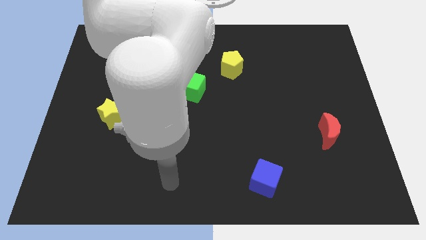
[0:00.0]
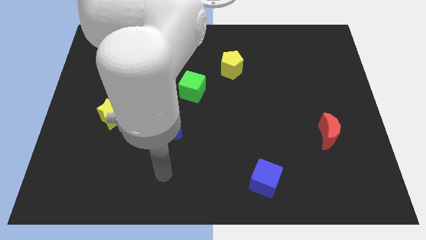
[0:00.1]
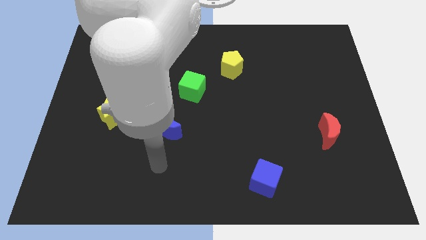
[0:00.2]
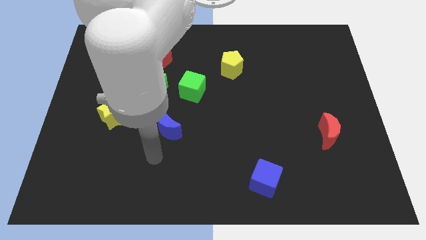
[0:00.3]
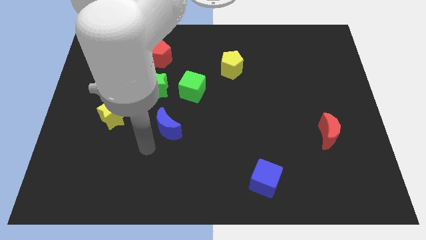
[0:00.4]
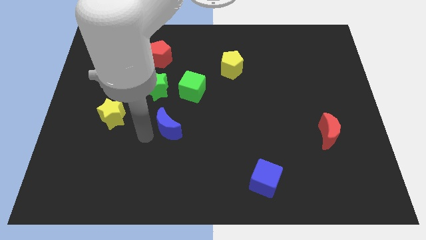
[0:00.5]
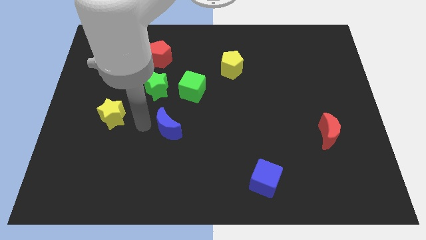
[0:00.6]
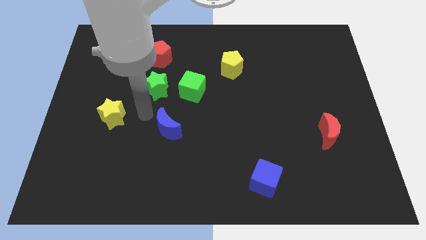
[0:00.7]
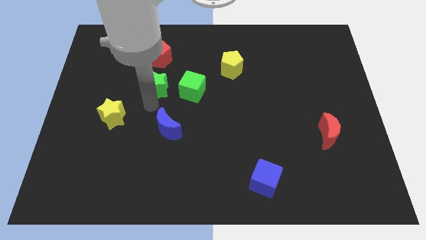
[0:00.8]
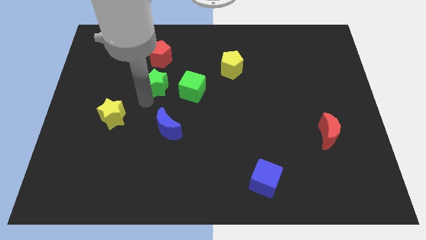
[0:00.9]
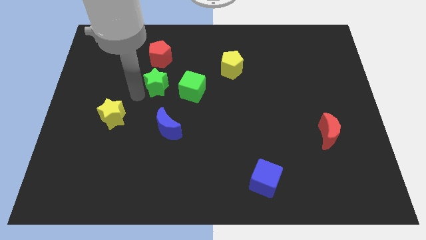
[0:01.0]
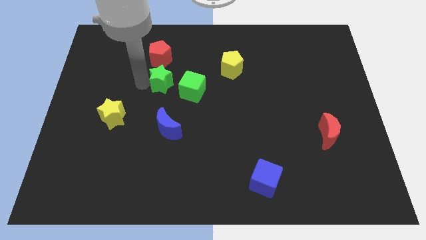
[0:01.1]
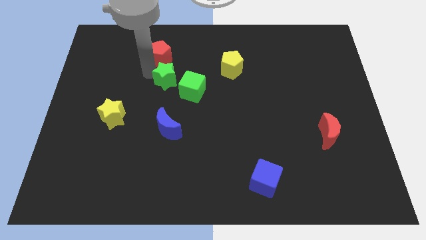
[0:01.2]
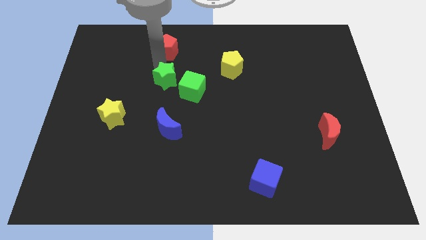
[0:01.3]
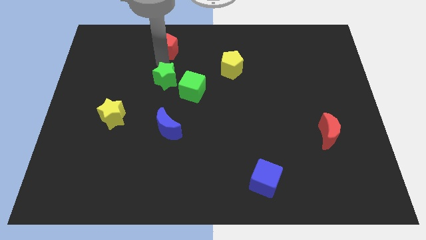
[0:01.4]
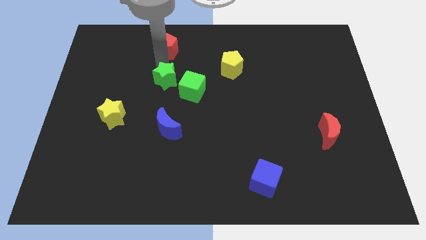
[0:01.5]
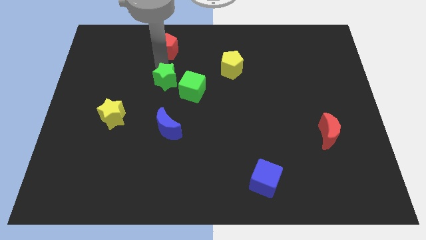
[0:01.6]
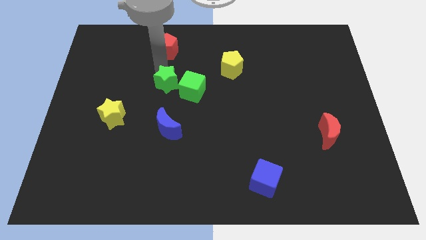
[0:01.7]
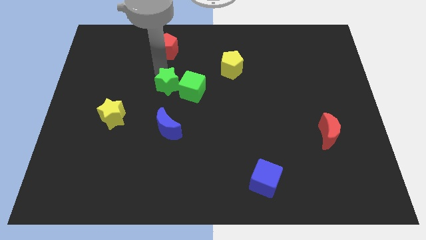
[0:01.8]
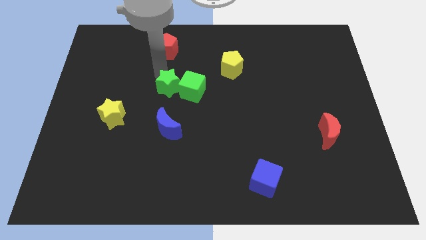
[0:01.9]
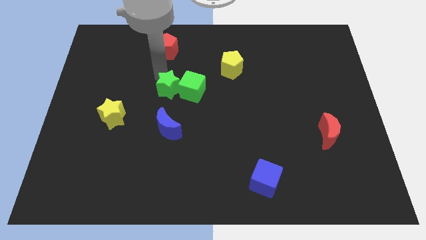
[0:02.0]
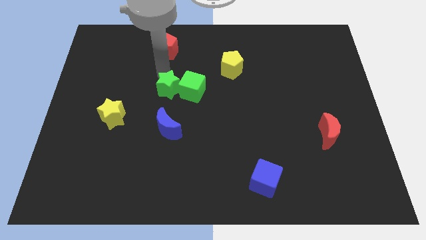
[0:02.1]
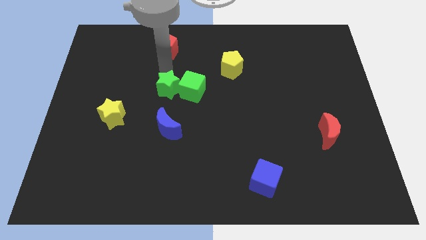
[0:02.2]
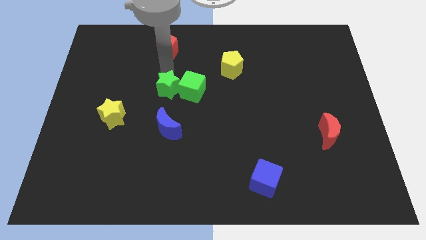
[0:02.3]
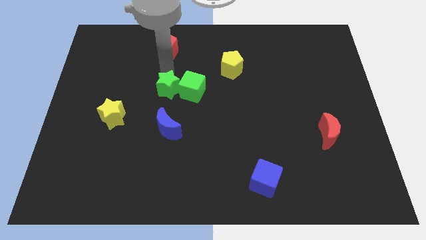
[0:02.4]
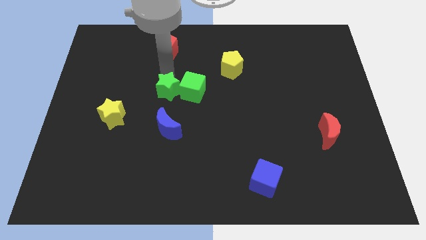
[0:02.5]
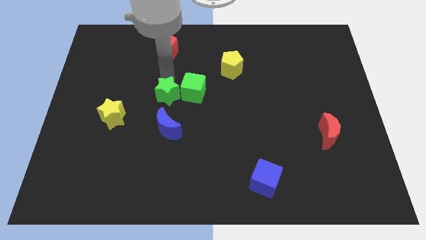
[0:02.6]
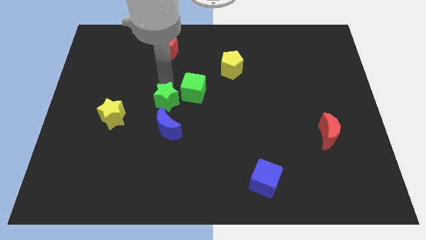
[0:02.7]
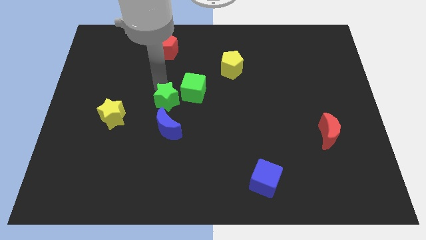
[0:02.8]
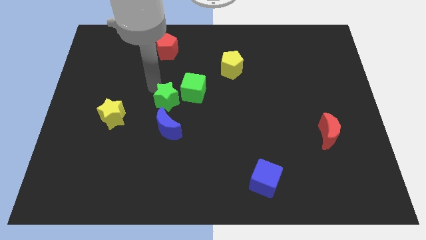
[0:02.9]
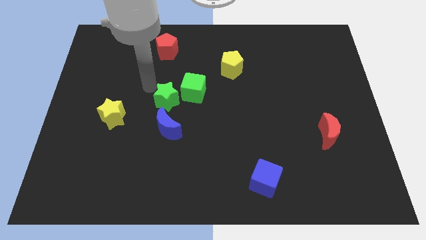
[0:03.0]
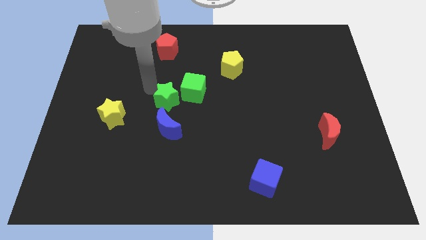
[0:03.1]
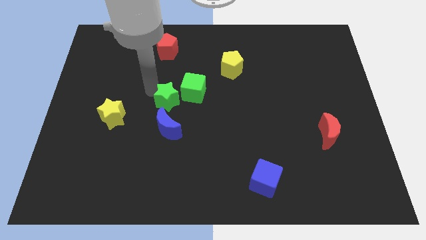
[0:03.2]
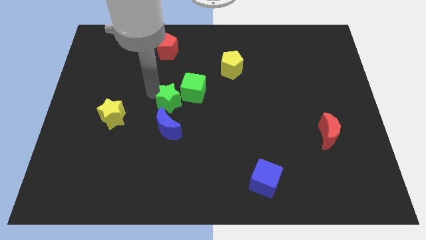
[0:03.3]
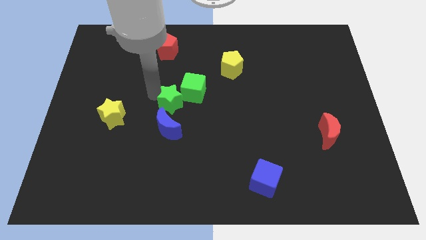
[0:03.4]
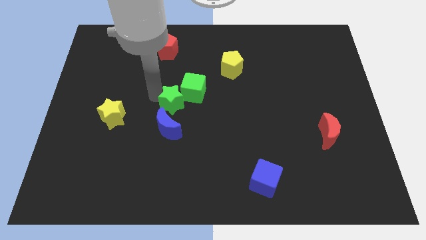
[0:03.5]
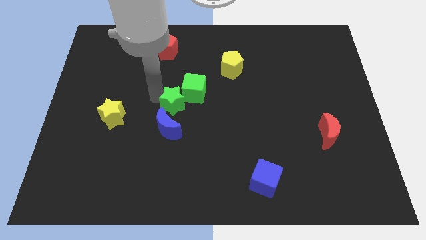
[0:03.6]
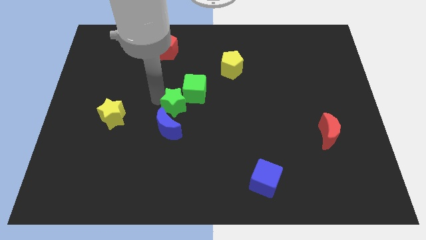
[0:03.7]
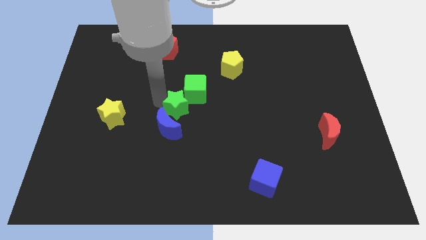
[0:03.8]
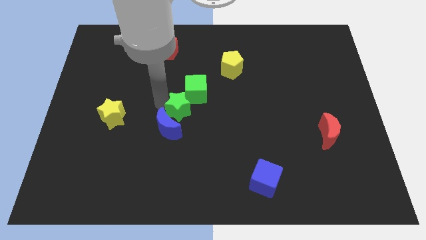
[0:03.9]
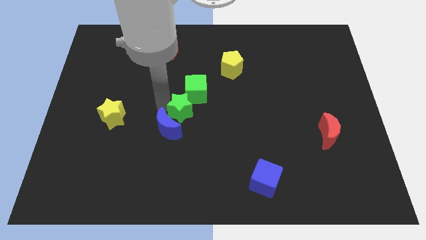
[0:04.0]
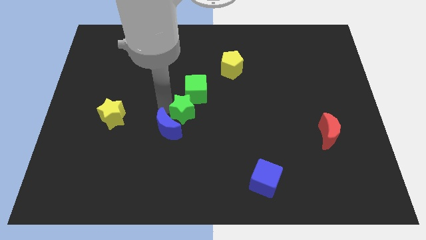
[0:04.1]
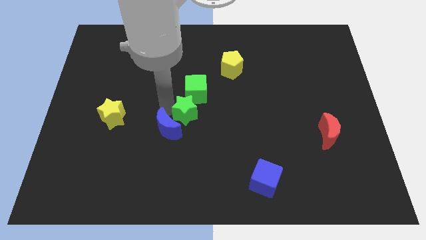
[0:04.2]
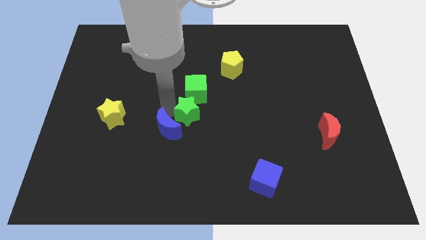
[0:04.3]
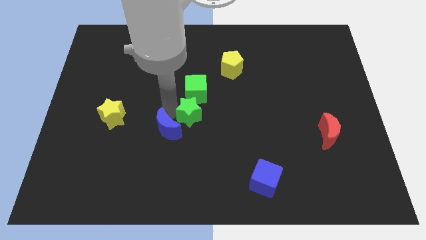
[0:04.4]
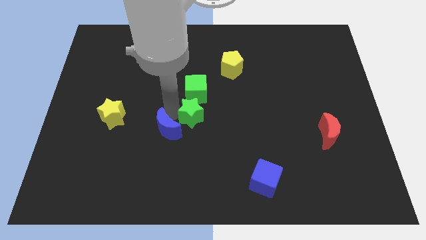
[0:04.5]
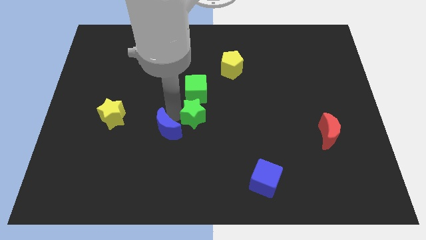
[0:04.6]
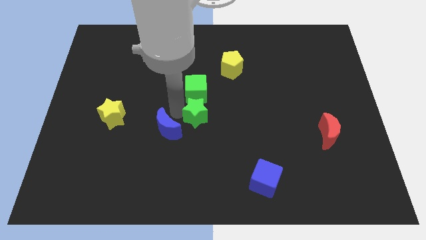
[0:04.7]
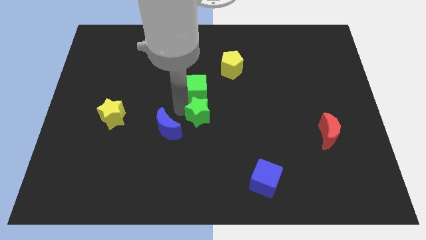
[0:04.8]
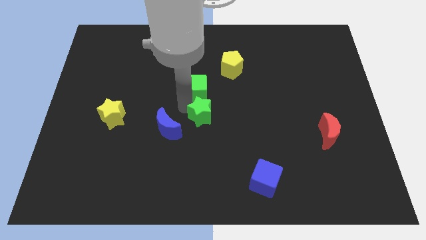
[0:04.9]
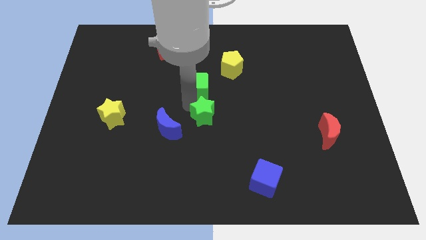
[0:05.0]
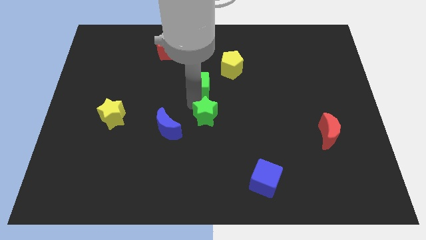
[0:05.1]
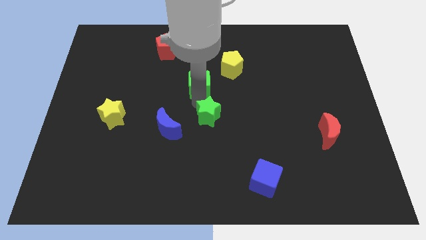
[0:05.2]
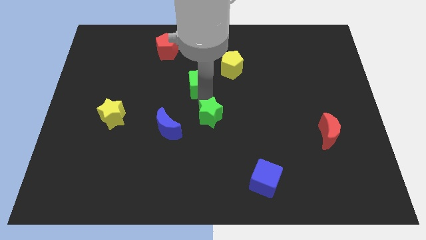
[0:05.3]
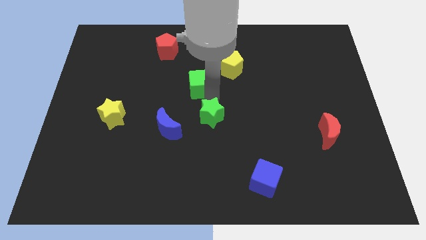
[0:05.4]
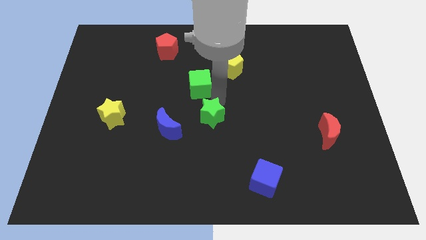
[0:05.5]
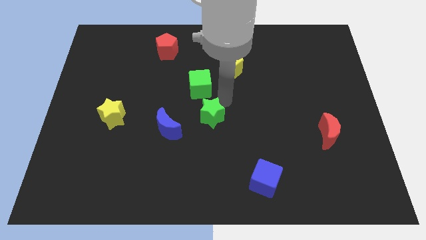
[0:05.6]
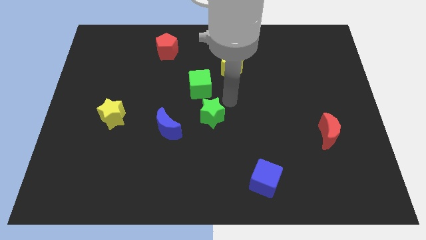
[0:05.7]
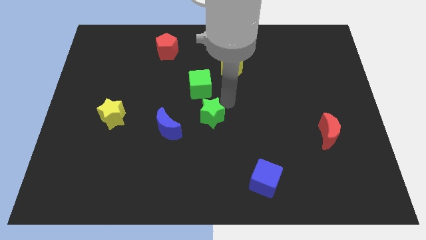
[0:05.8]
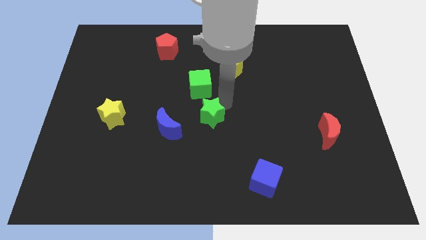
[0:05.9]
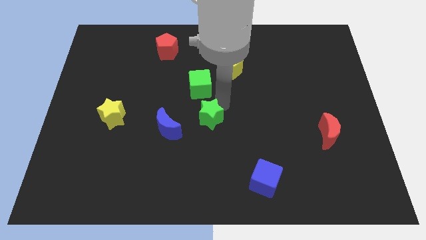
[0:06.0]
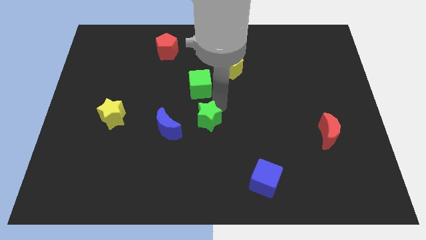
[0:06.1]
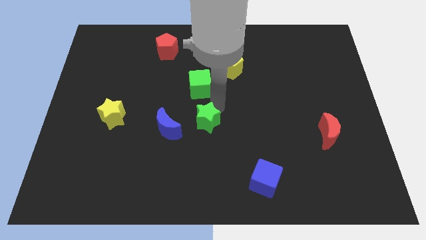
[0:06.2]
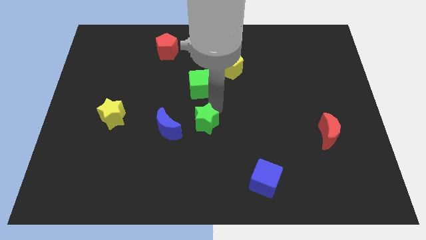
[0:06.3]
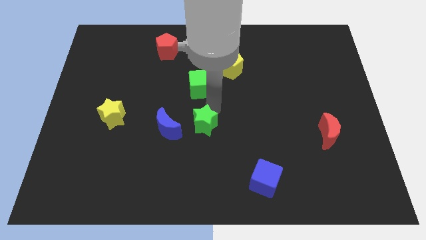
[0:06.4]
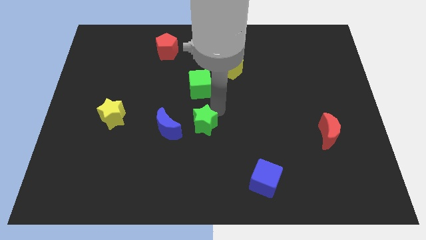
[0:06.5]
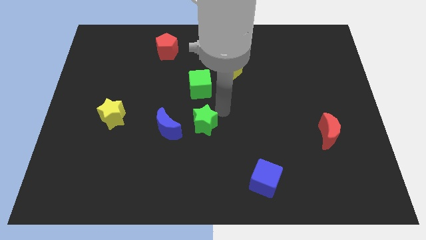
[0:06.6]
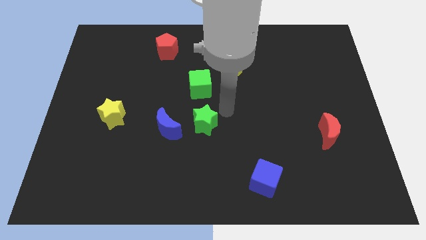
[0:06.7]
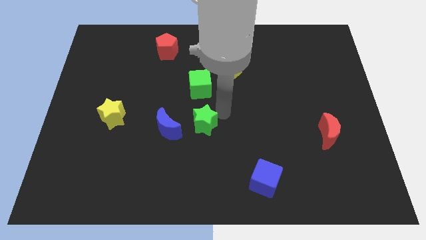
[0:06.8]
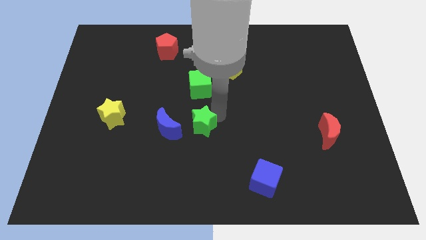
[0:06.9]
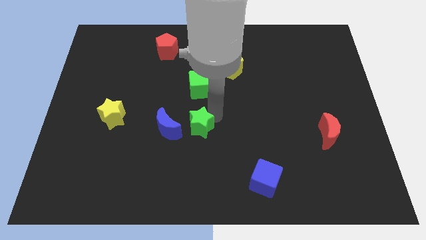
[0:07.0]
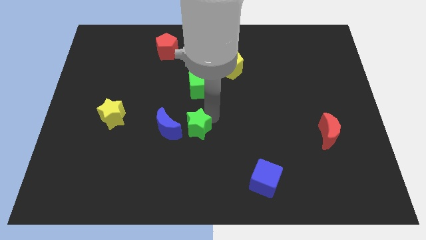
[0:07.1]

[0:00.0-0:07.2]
slide the green star to the bottom right side of the blue moon
